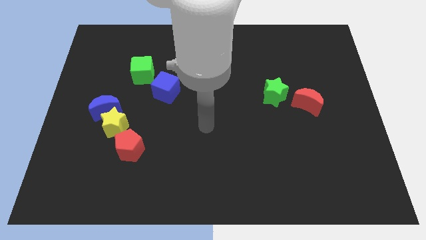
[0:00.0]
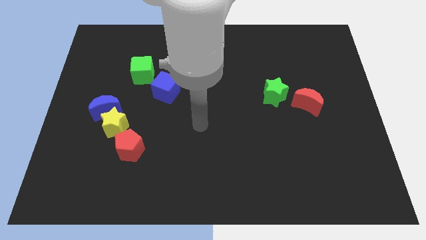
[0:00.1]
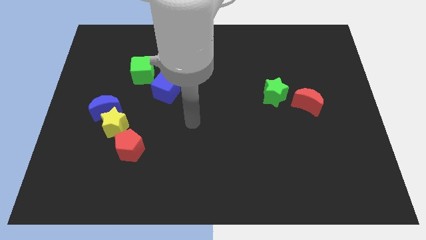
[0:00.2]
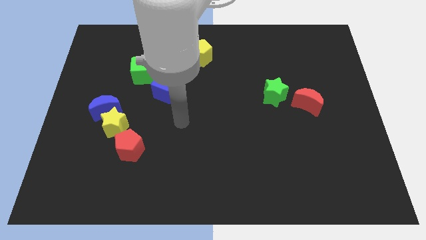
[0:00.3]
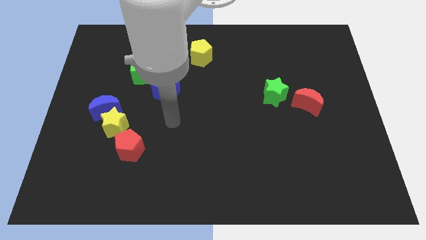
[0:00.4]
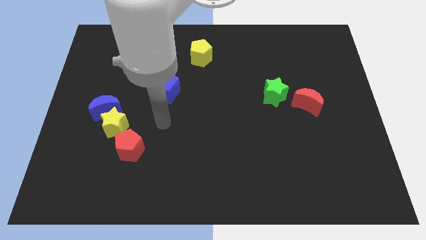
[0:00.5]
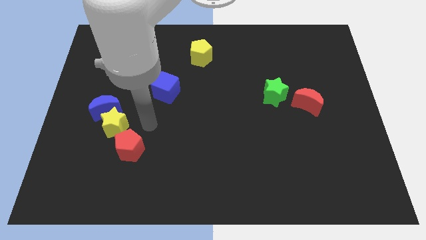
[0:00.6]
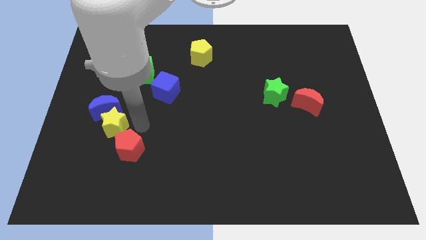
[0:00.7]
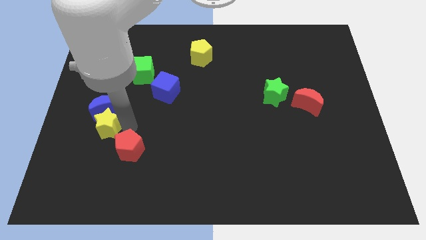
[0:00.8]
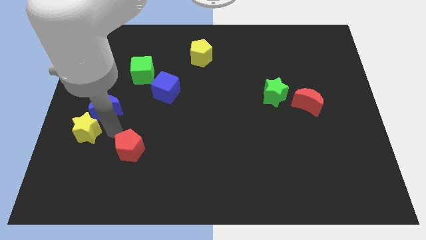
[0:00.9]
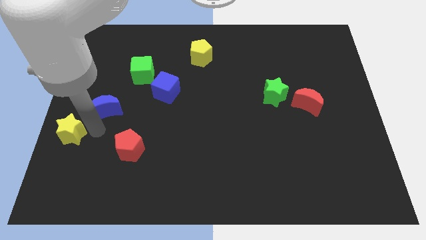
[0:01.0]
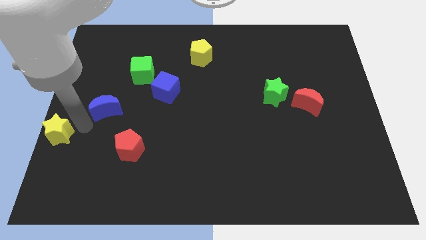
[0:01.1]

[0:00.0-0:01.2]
separate the blue moon from the yellow star

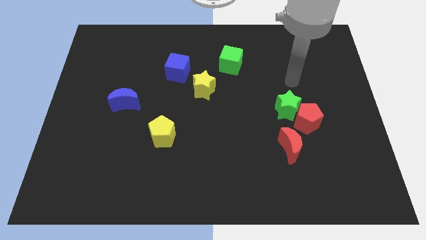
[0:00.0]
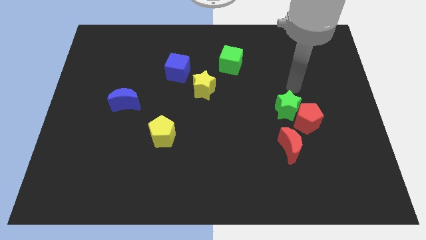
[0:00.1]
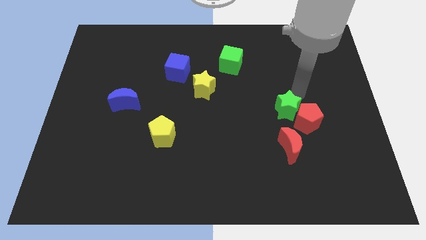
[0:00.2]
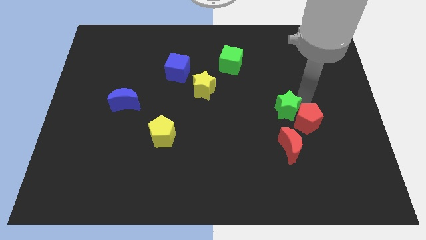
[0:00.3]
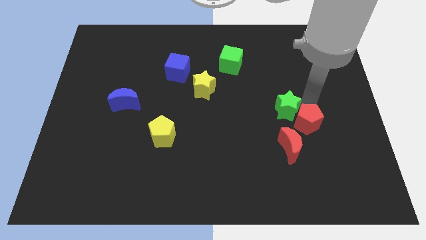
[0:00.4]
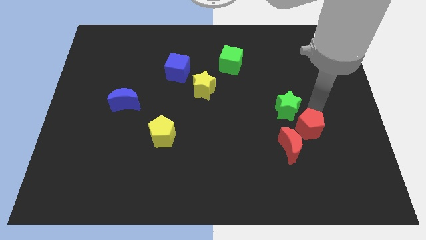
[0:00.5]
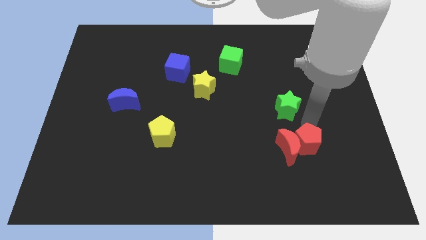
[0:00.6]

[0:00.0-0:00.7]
move the green star away from the red pentagon

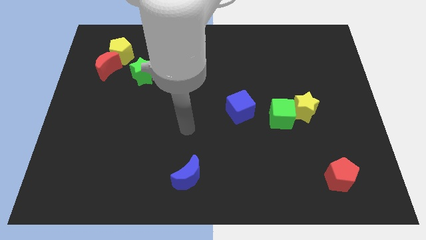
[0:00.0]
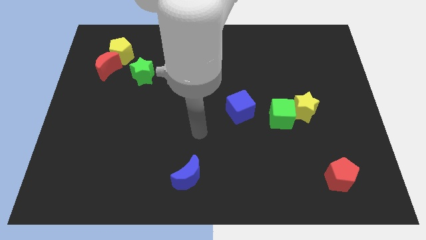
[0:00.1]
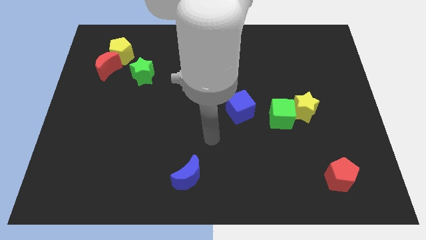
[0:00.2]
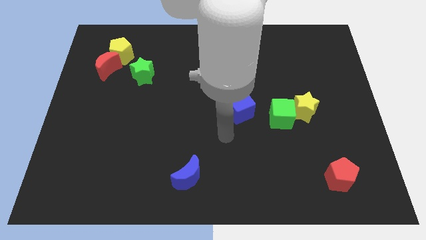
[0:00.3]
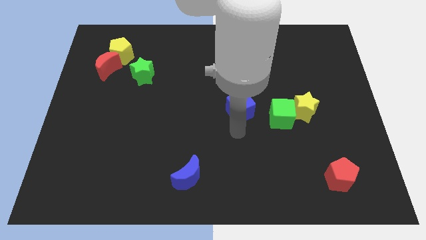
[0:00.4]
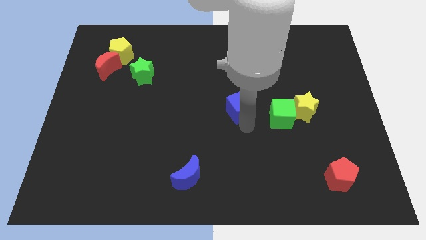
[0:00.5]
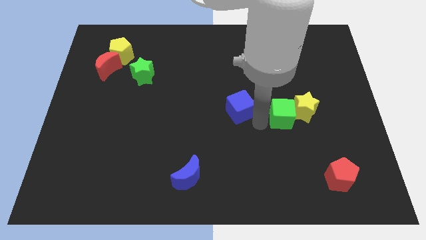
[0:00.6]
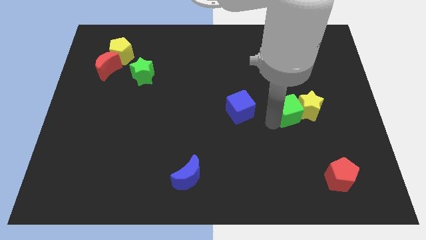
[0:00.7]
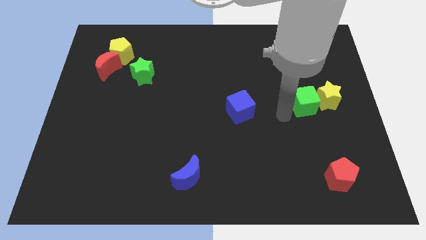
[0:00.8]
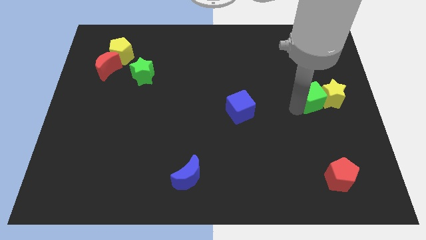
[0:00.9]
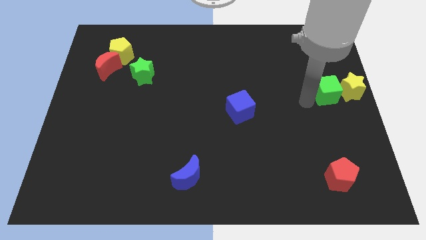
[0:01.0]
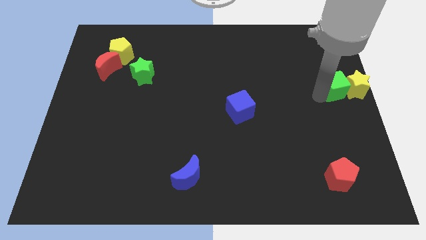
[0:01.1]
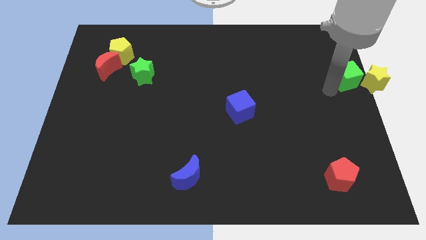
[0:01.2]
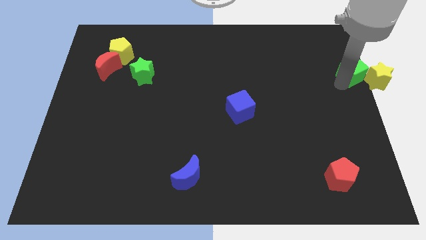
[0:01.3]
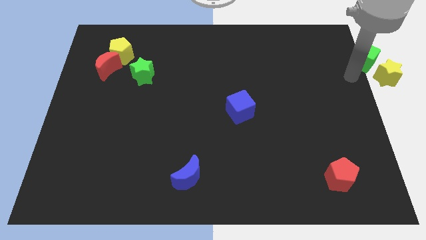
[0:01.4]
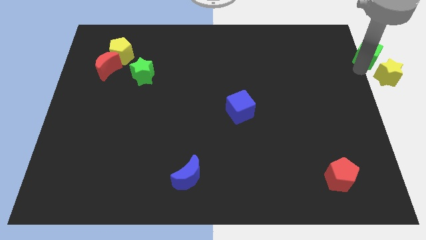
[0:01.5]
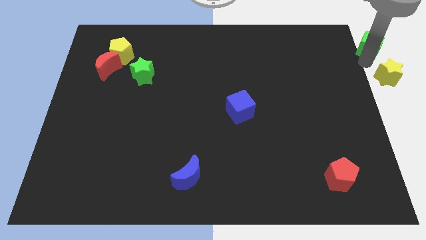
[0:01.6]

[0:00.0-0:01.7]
separate the yellow star from the green cube

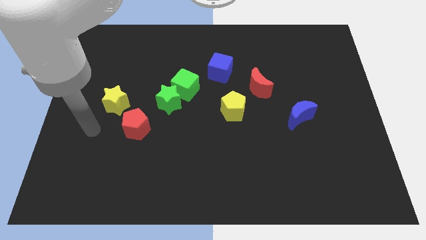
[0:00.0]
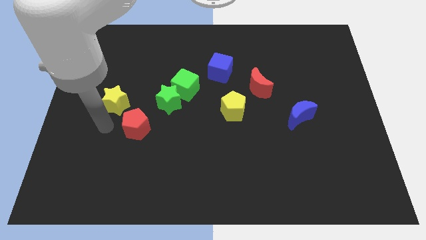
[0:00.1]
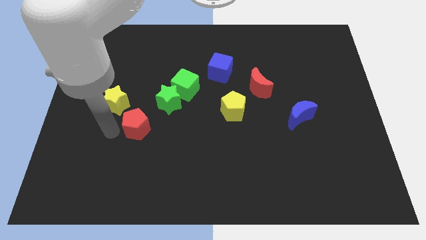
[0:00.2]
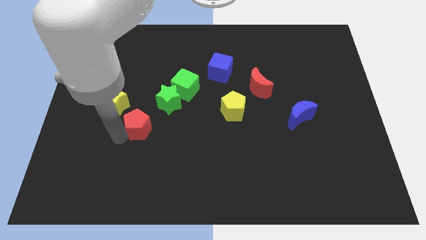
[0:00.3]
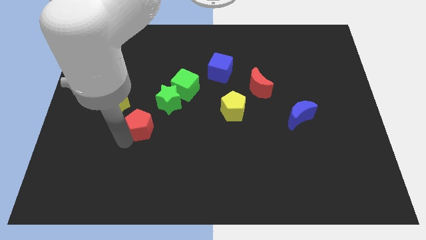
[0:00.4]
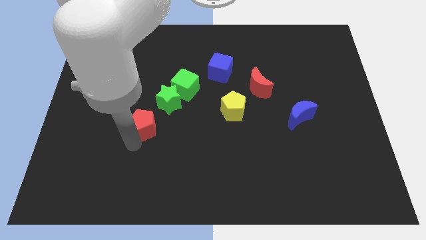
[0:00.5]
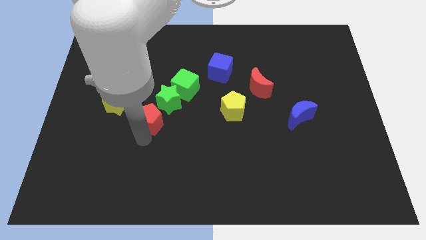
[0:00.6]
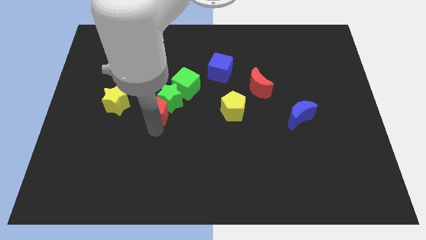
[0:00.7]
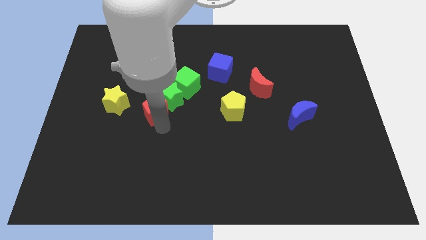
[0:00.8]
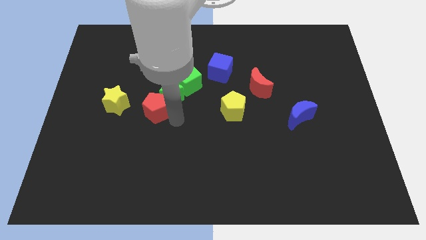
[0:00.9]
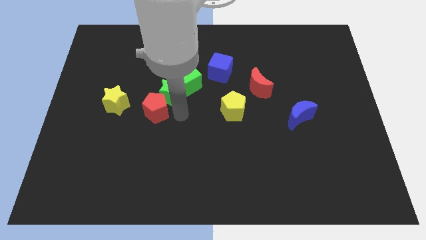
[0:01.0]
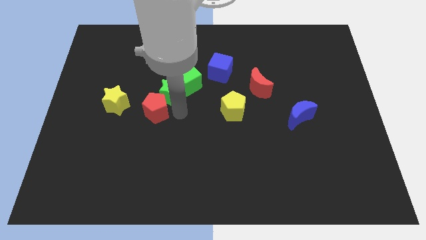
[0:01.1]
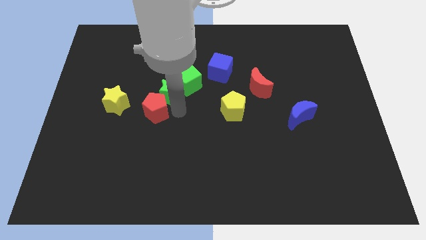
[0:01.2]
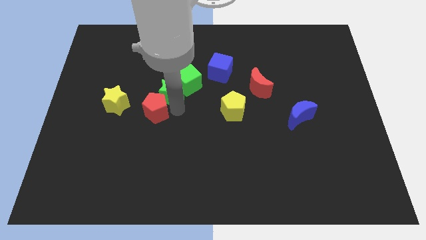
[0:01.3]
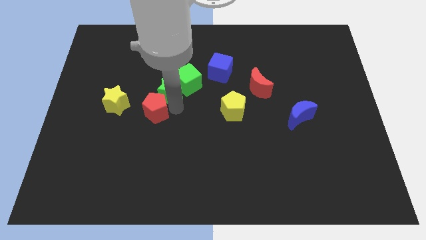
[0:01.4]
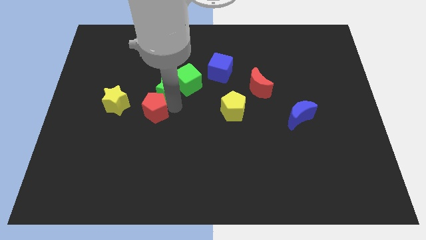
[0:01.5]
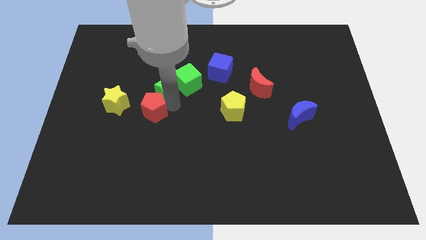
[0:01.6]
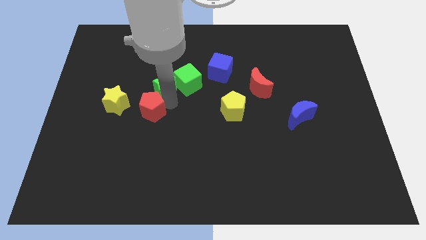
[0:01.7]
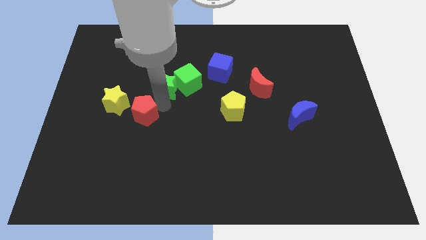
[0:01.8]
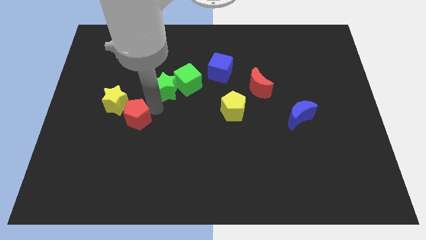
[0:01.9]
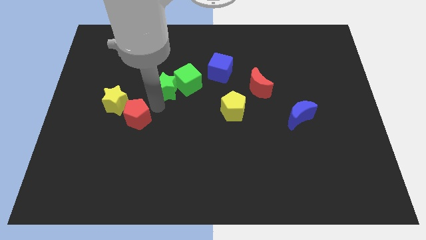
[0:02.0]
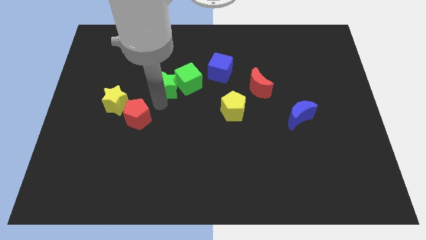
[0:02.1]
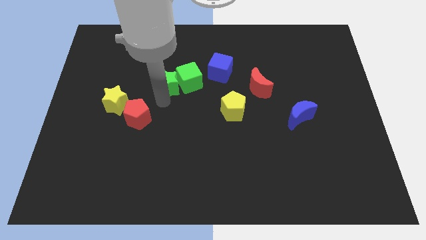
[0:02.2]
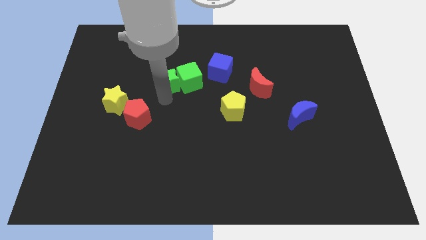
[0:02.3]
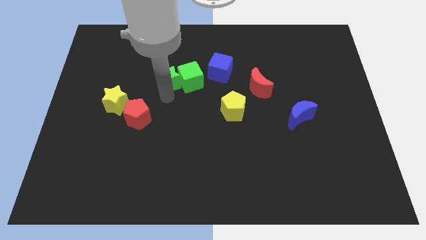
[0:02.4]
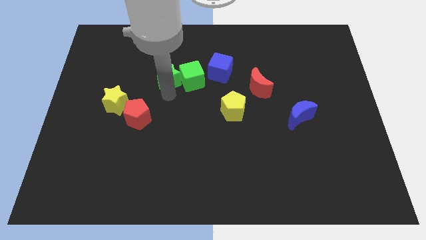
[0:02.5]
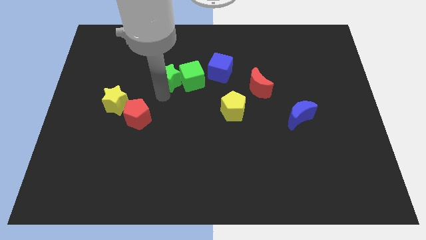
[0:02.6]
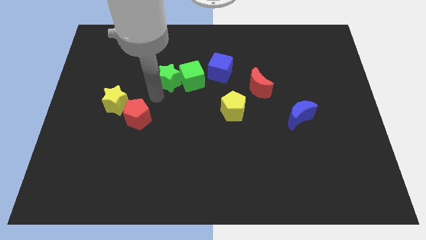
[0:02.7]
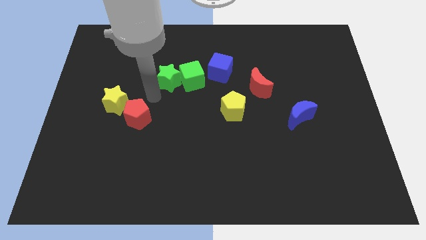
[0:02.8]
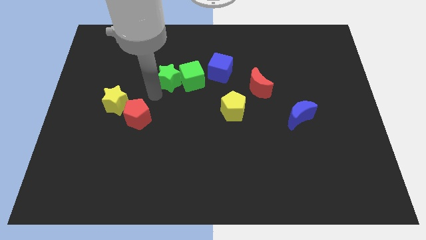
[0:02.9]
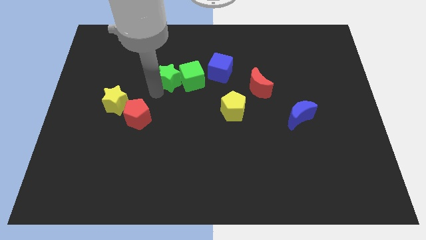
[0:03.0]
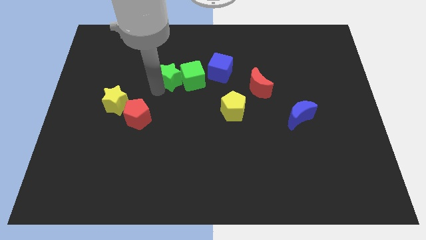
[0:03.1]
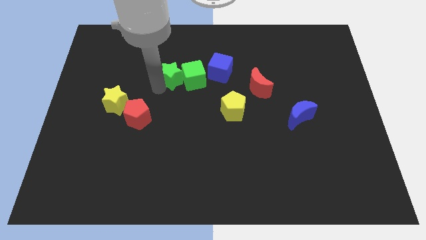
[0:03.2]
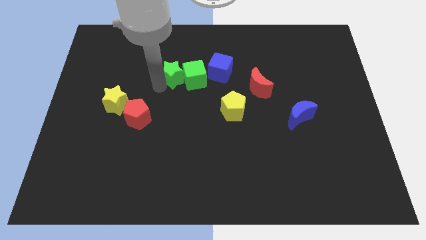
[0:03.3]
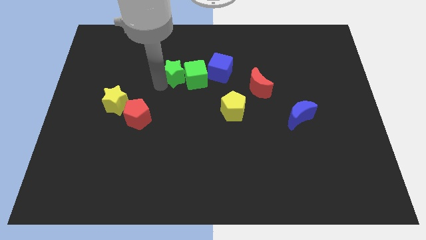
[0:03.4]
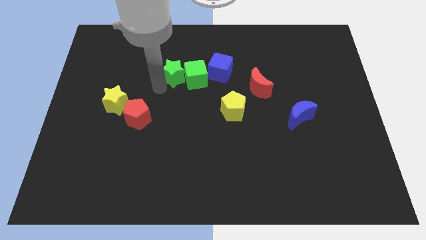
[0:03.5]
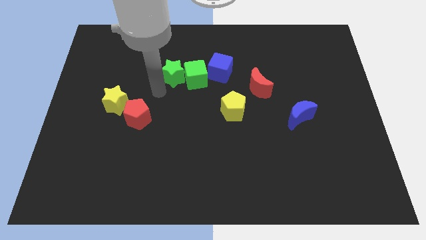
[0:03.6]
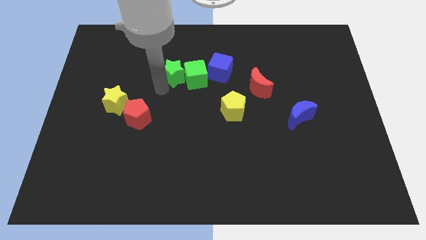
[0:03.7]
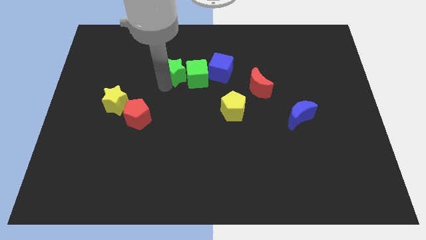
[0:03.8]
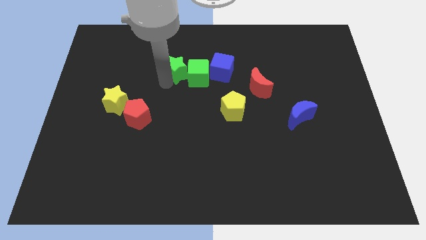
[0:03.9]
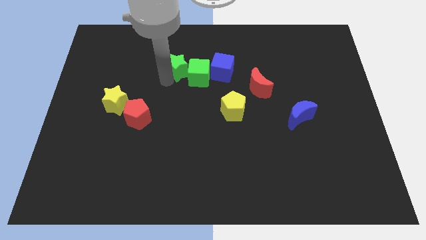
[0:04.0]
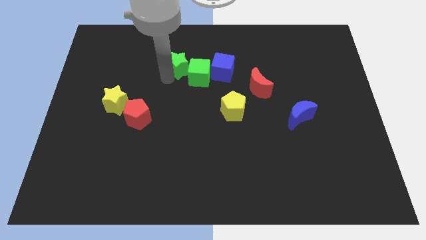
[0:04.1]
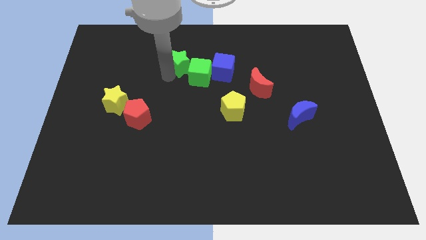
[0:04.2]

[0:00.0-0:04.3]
move the green star away from the green cube and red pentagon

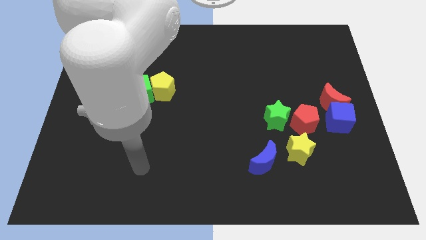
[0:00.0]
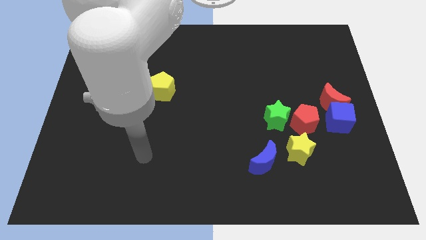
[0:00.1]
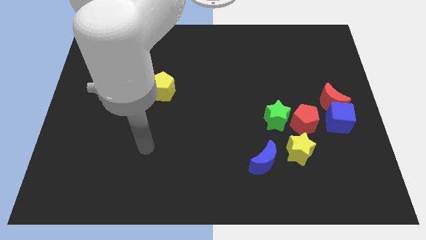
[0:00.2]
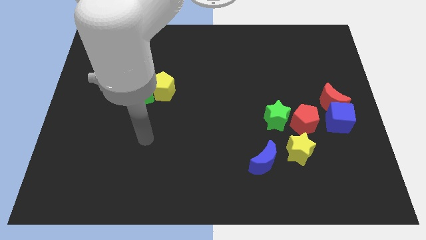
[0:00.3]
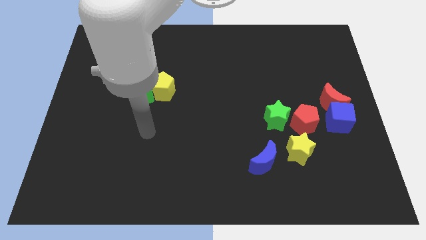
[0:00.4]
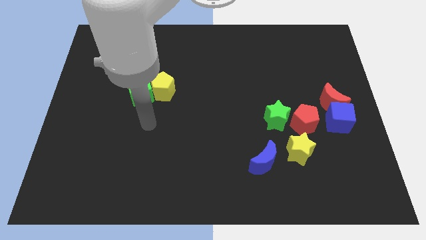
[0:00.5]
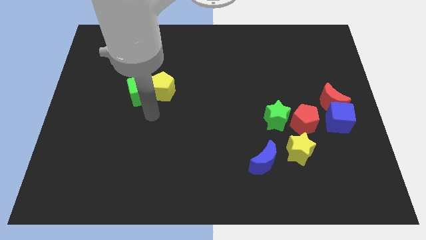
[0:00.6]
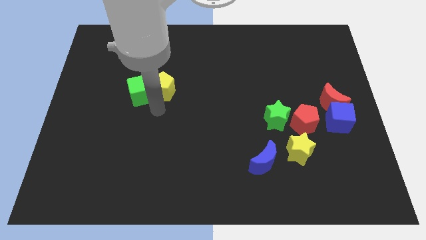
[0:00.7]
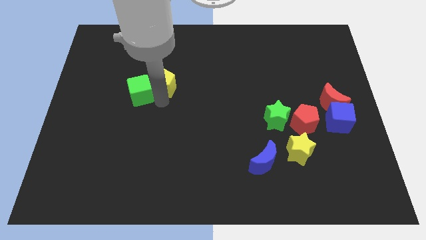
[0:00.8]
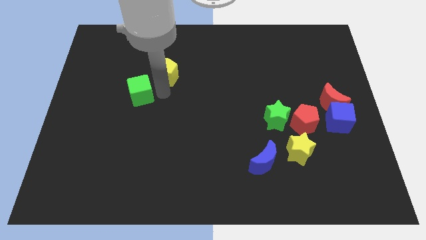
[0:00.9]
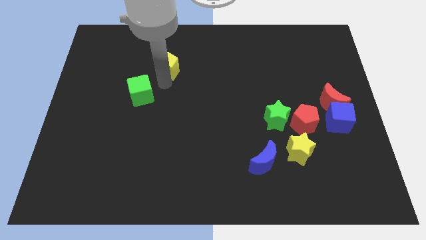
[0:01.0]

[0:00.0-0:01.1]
separate the green cube from the yellow pentagon

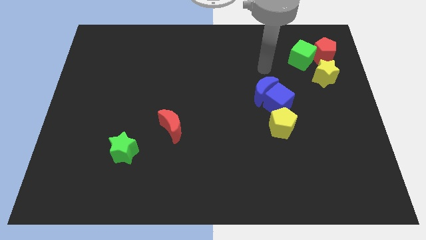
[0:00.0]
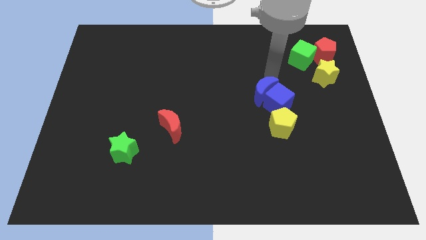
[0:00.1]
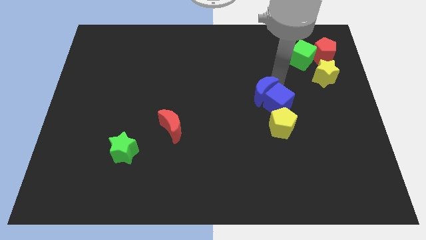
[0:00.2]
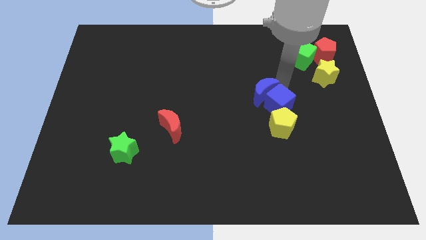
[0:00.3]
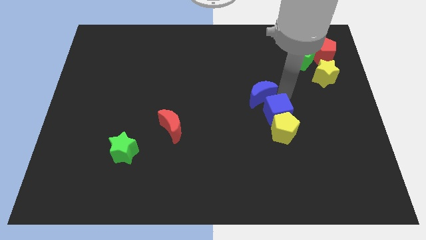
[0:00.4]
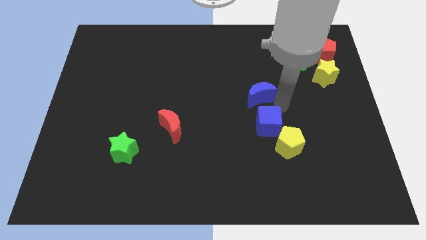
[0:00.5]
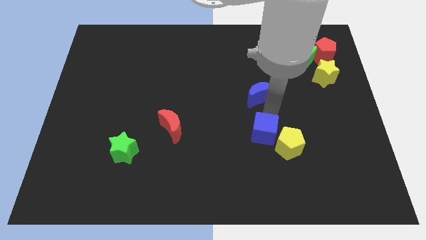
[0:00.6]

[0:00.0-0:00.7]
separate the blue moon from the blue cube
